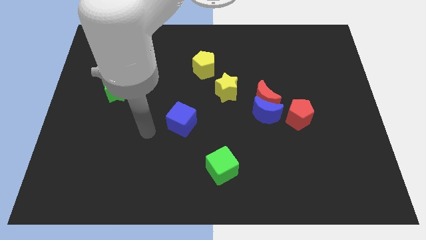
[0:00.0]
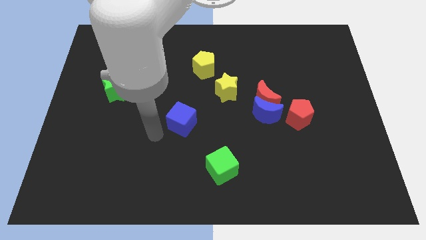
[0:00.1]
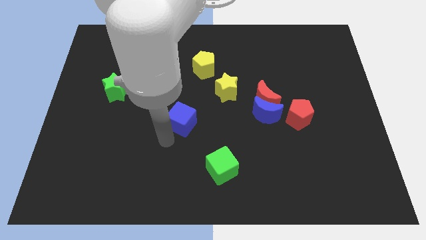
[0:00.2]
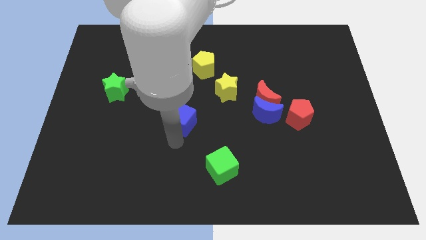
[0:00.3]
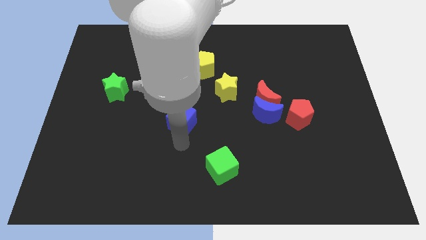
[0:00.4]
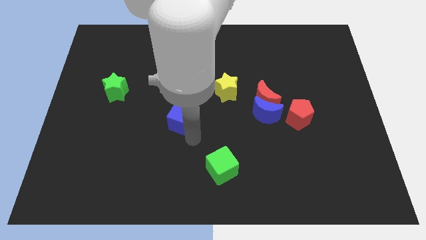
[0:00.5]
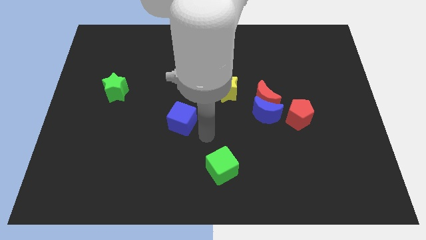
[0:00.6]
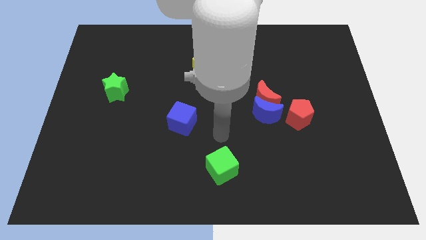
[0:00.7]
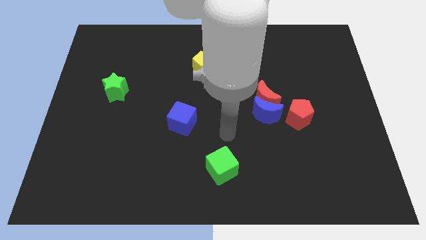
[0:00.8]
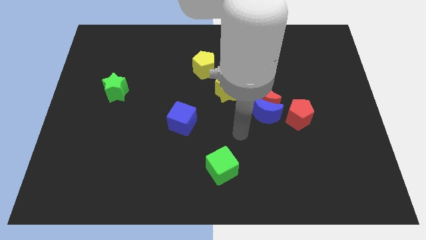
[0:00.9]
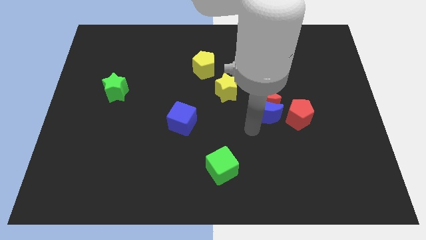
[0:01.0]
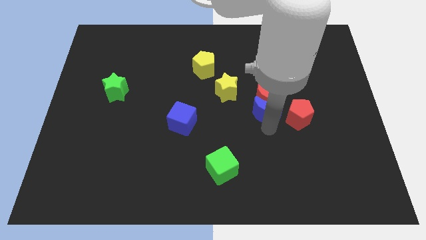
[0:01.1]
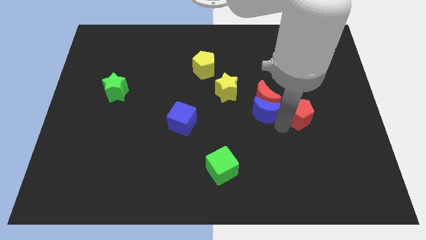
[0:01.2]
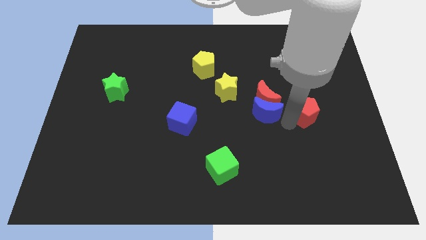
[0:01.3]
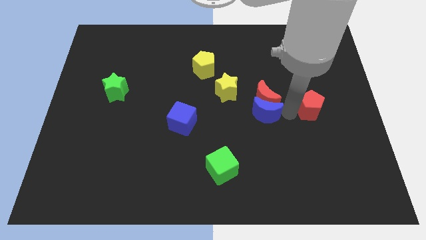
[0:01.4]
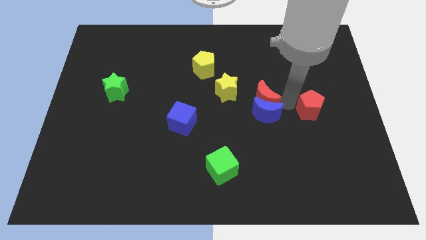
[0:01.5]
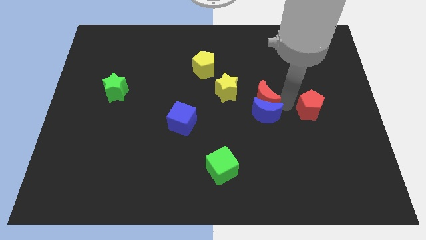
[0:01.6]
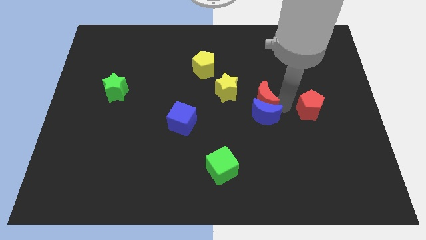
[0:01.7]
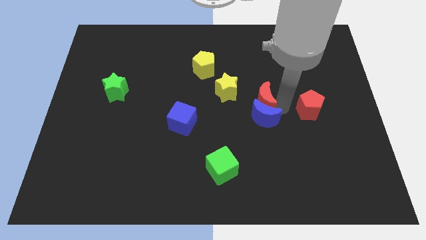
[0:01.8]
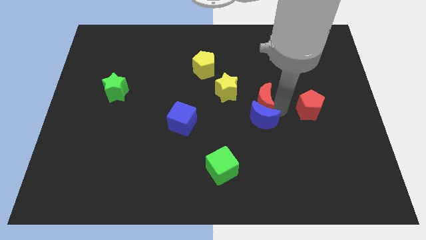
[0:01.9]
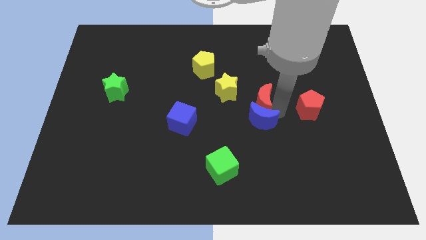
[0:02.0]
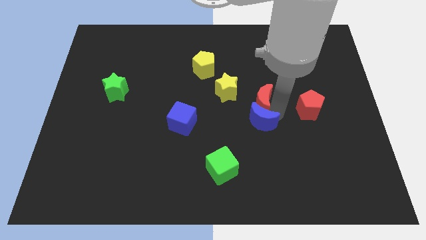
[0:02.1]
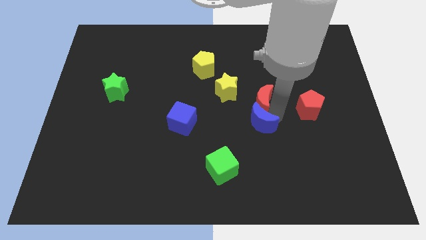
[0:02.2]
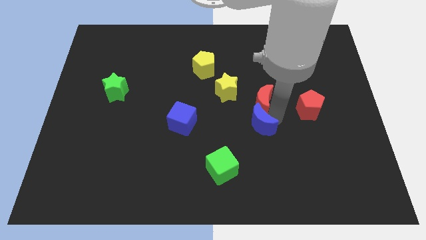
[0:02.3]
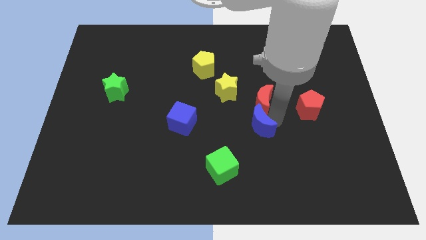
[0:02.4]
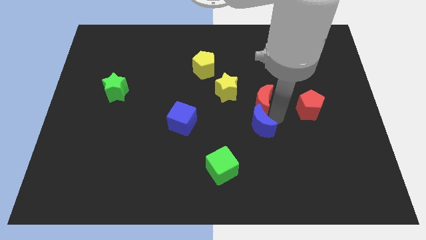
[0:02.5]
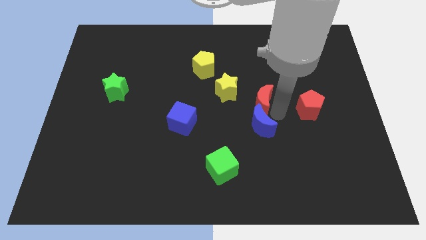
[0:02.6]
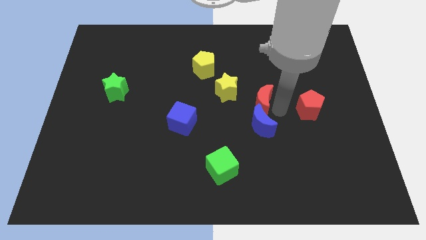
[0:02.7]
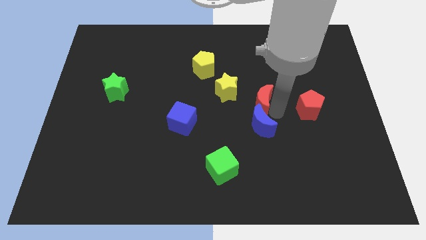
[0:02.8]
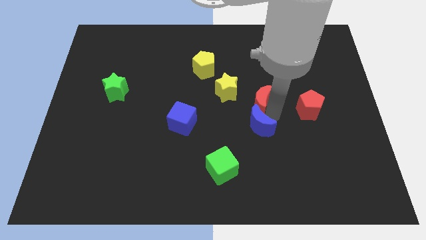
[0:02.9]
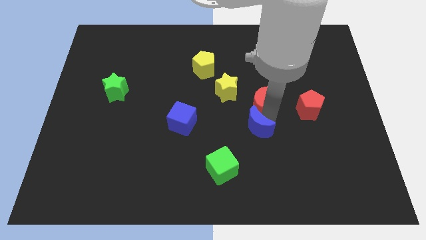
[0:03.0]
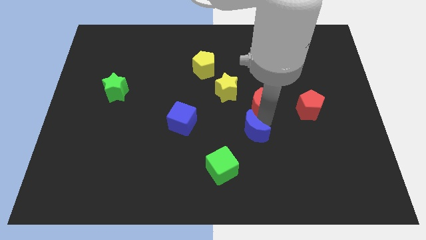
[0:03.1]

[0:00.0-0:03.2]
pull the blue moon apart from the red moon and red pentagon

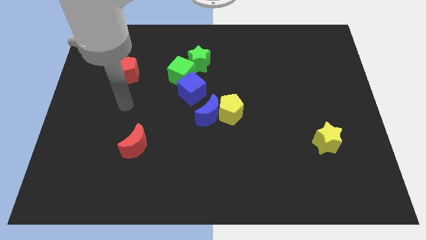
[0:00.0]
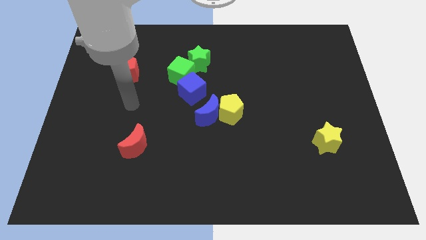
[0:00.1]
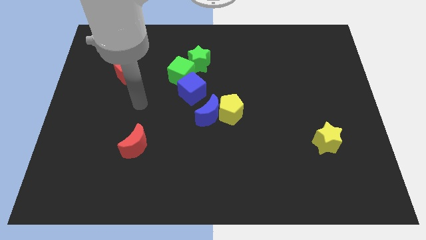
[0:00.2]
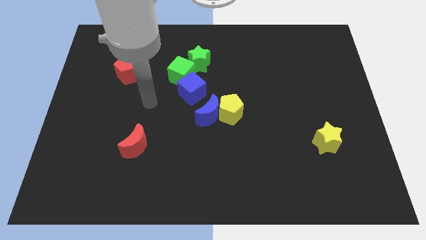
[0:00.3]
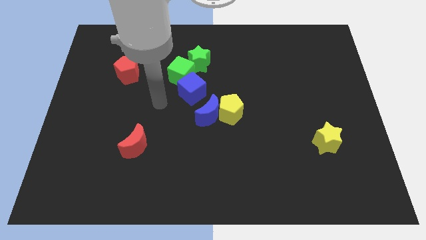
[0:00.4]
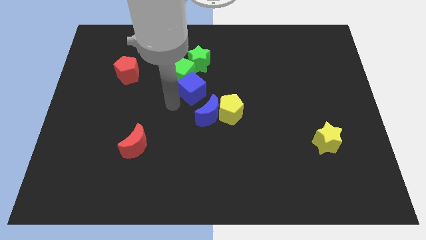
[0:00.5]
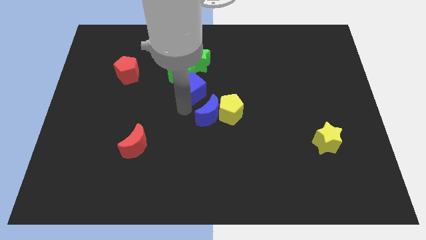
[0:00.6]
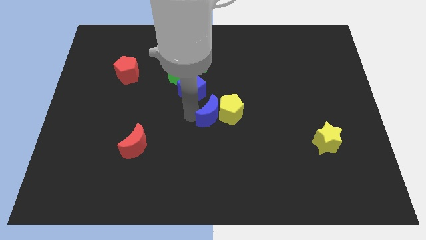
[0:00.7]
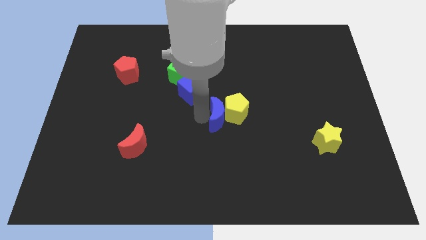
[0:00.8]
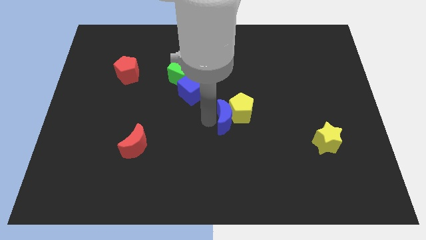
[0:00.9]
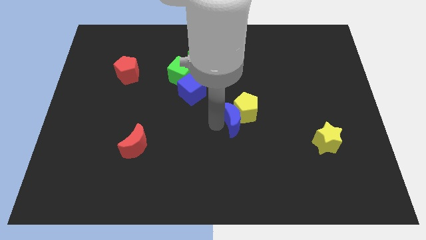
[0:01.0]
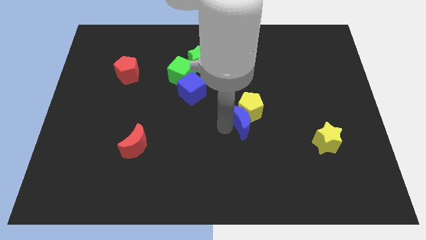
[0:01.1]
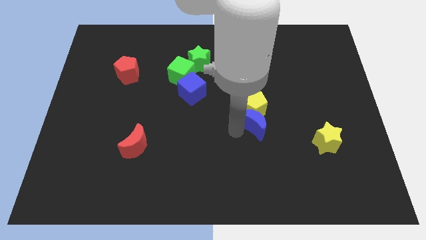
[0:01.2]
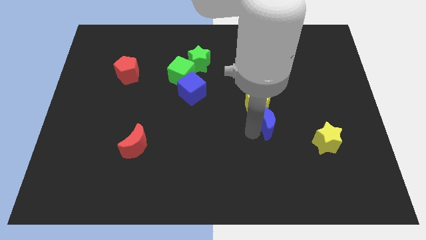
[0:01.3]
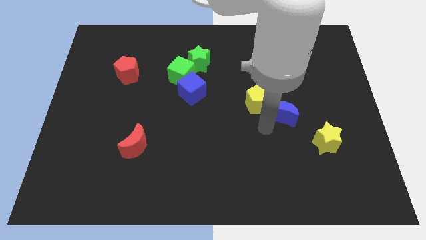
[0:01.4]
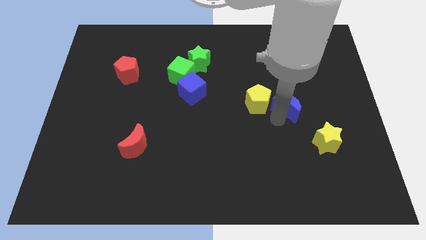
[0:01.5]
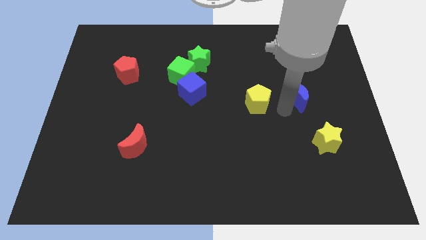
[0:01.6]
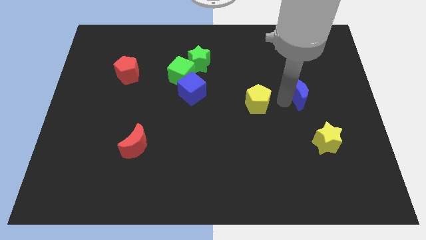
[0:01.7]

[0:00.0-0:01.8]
separate the yellow pentagon from the blue moon

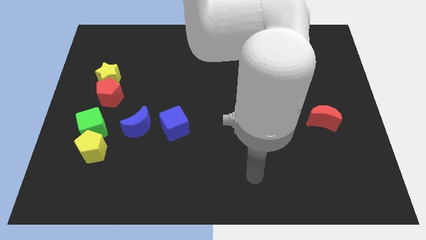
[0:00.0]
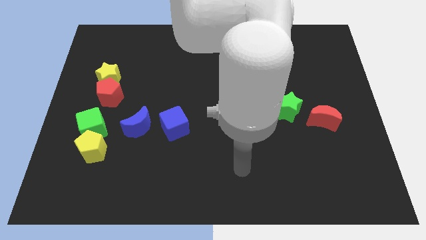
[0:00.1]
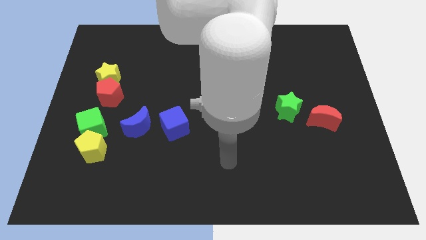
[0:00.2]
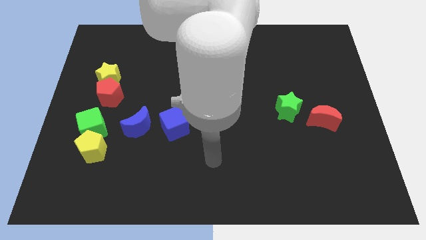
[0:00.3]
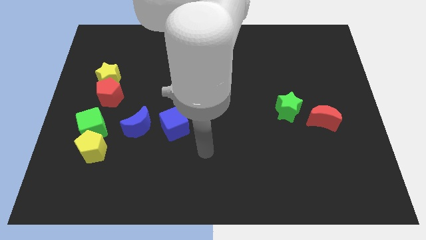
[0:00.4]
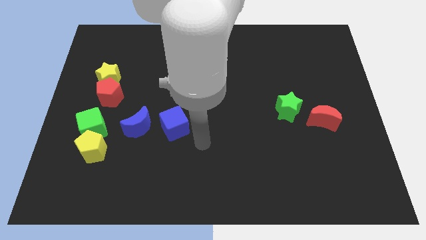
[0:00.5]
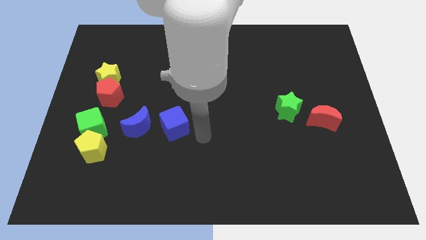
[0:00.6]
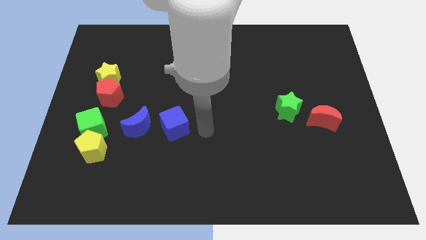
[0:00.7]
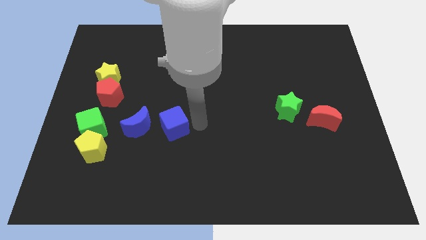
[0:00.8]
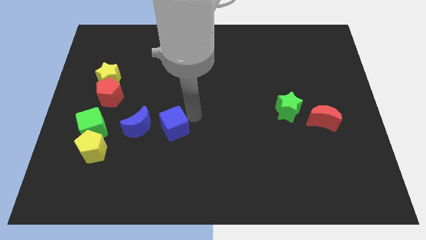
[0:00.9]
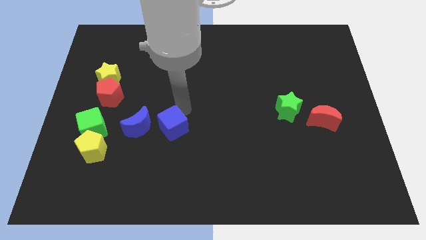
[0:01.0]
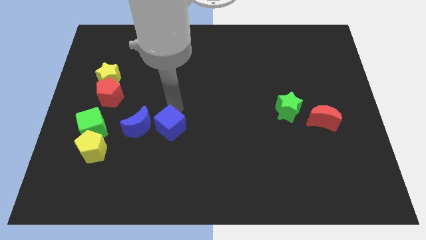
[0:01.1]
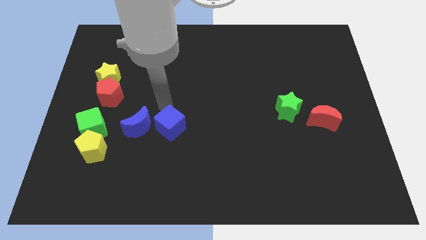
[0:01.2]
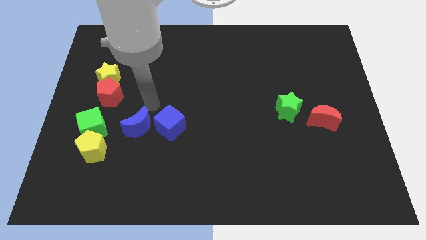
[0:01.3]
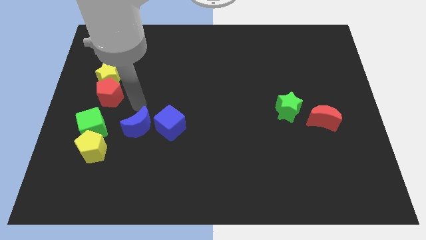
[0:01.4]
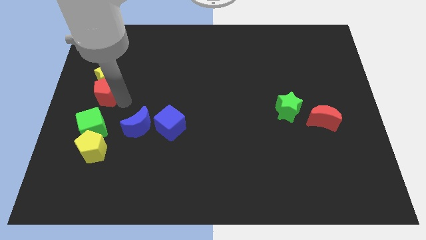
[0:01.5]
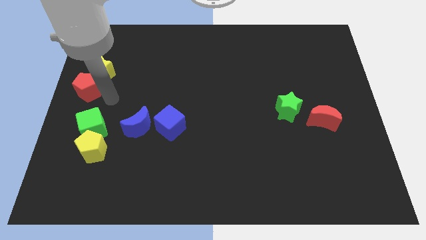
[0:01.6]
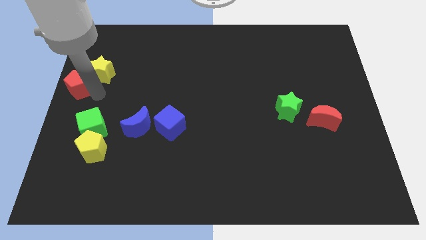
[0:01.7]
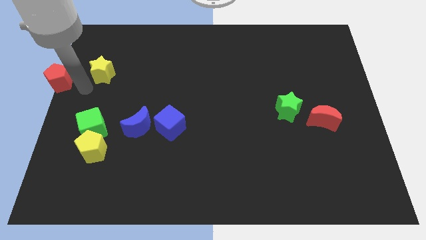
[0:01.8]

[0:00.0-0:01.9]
separate the yellow star from the red pentagon

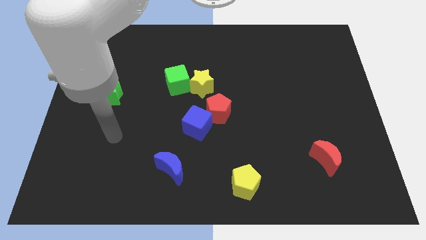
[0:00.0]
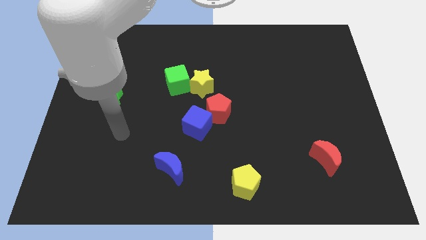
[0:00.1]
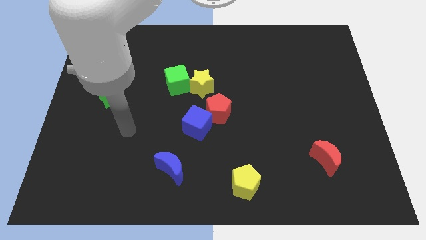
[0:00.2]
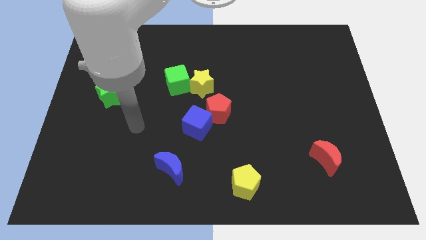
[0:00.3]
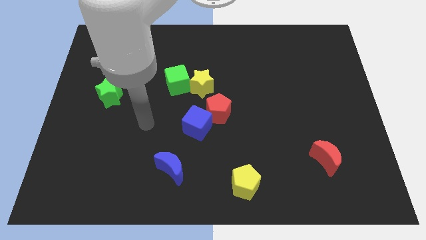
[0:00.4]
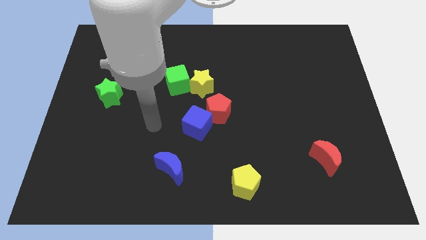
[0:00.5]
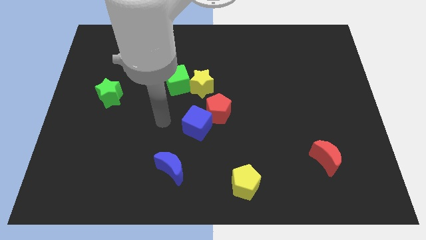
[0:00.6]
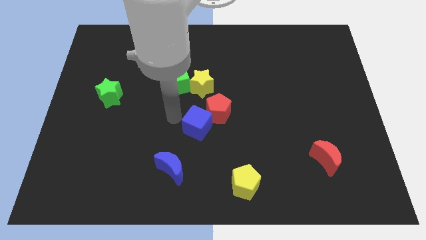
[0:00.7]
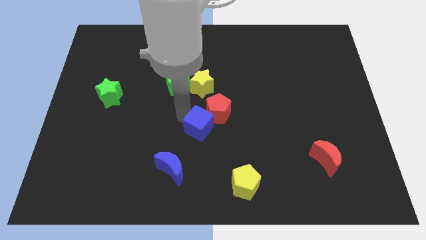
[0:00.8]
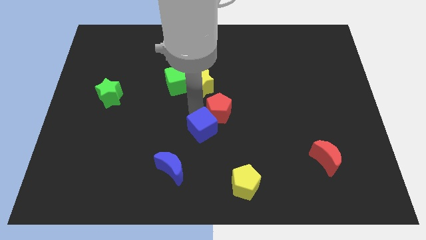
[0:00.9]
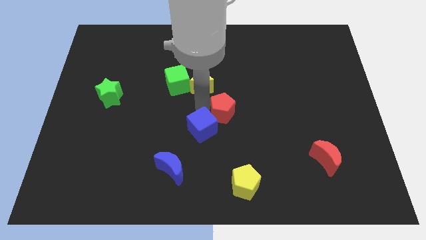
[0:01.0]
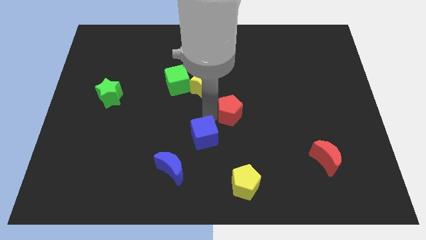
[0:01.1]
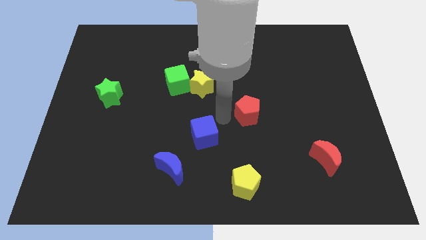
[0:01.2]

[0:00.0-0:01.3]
pull the blue cube apart from the red pentagon

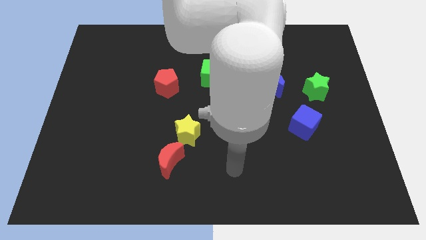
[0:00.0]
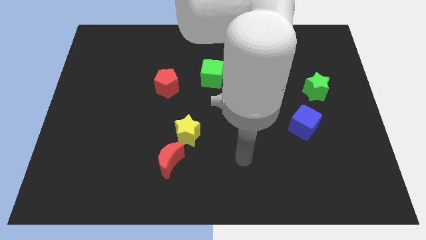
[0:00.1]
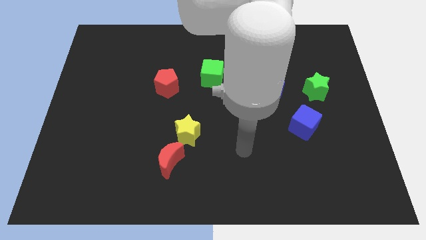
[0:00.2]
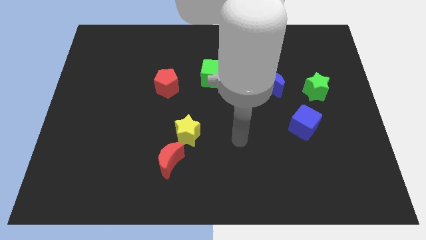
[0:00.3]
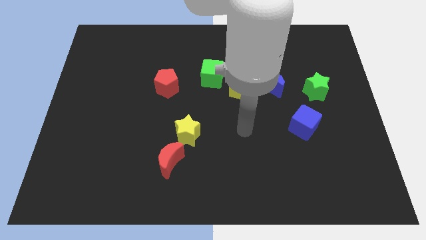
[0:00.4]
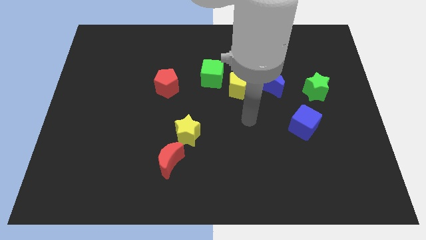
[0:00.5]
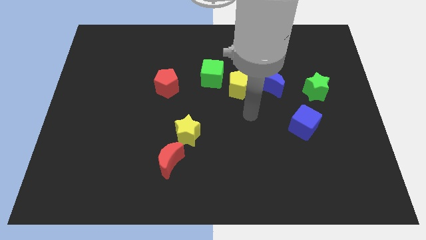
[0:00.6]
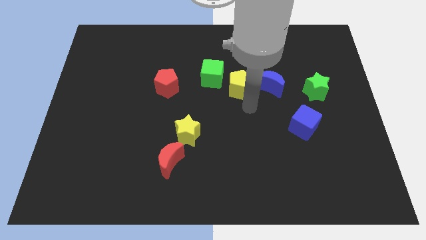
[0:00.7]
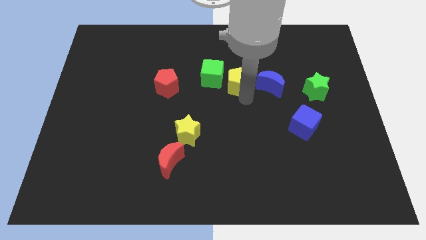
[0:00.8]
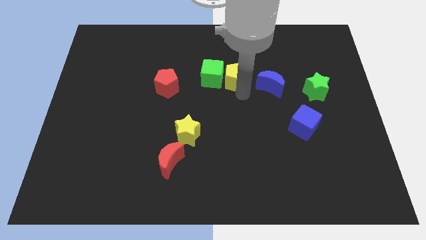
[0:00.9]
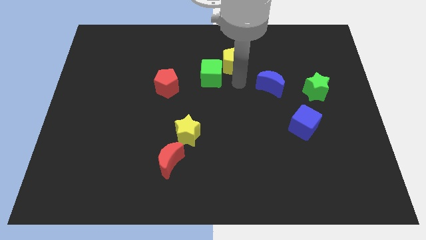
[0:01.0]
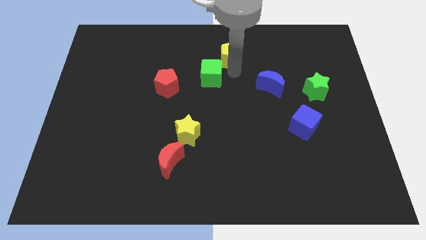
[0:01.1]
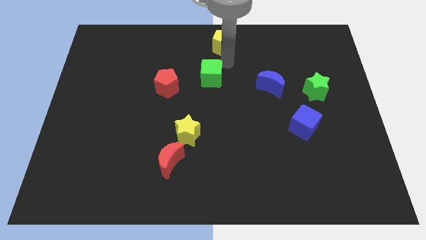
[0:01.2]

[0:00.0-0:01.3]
move the green cube away from the yellow pentagon
